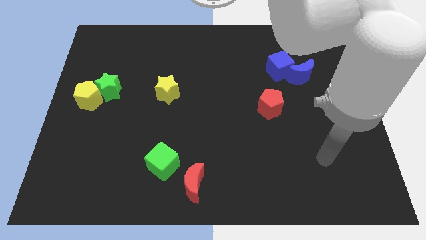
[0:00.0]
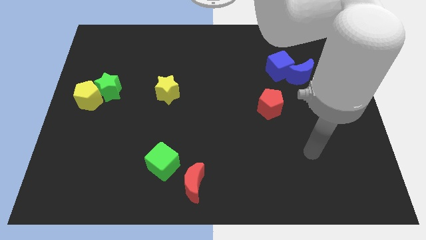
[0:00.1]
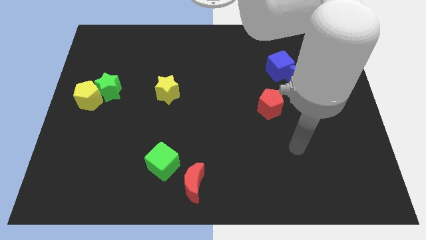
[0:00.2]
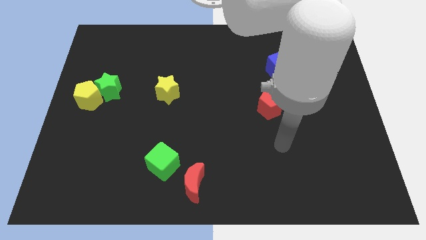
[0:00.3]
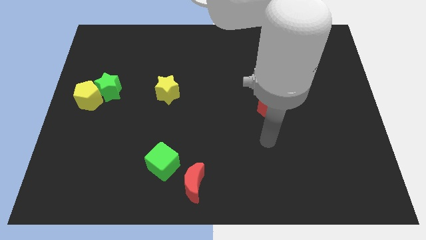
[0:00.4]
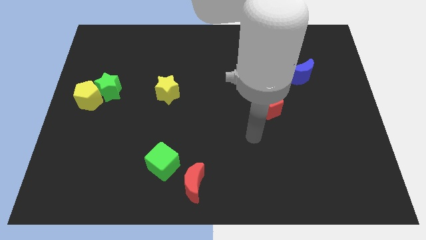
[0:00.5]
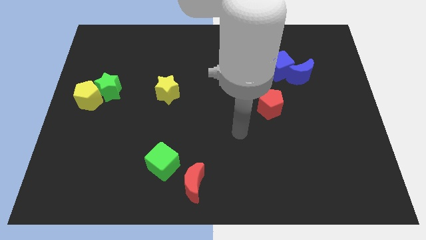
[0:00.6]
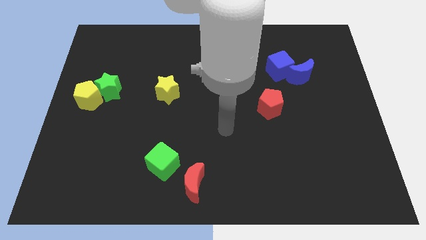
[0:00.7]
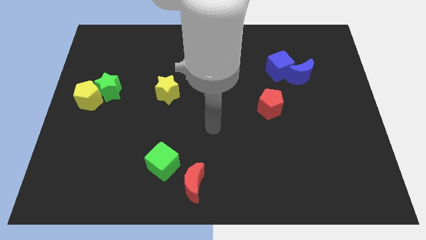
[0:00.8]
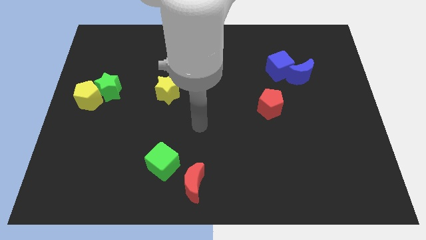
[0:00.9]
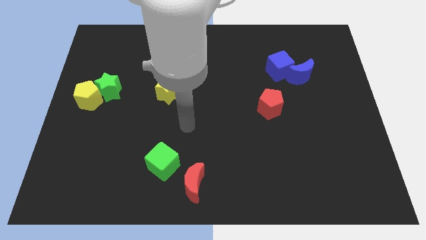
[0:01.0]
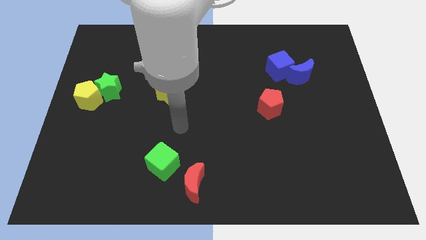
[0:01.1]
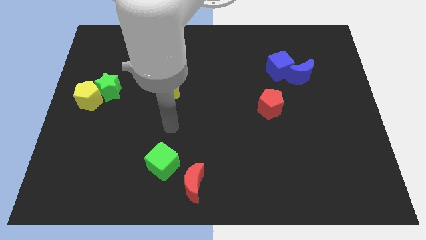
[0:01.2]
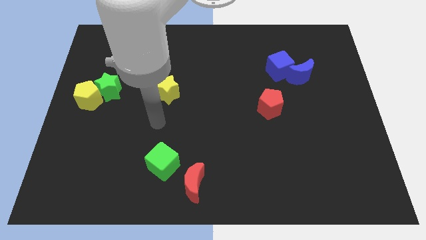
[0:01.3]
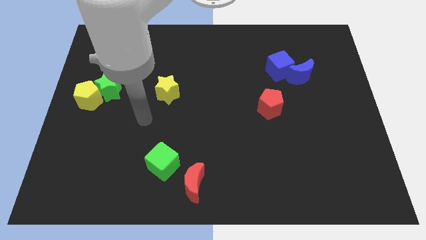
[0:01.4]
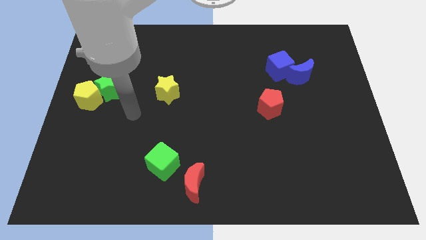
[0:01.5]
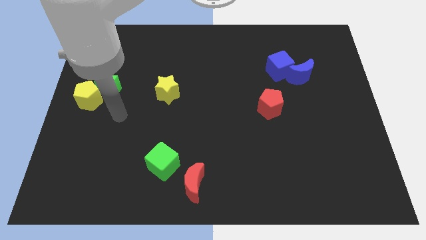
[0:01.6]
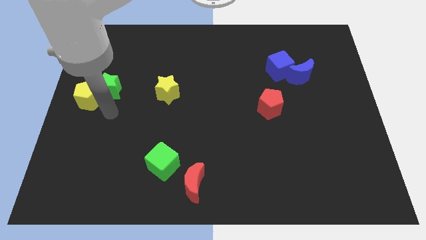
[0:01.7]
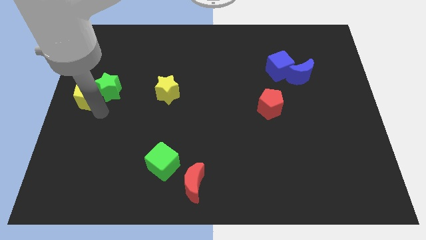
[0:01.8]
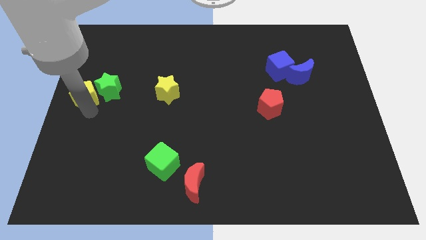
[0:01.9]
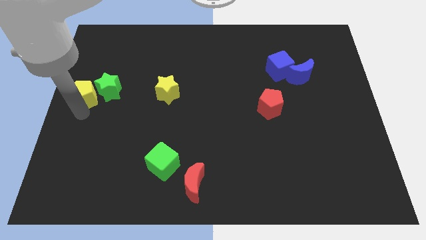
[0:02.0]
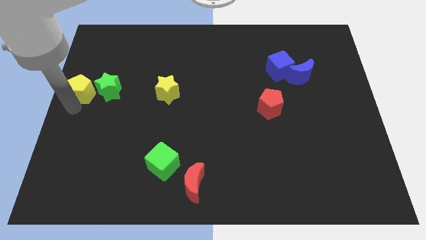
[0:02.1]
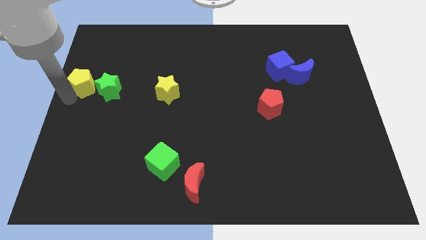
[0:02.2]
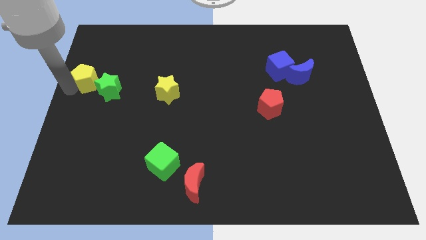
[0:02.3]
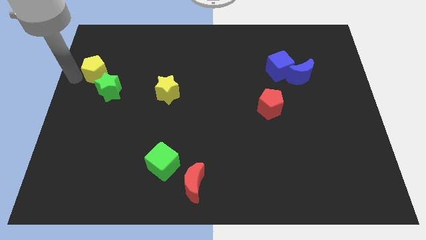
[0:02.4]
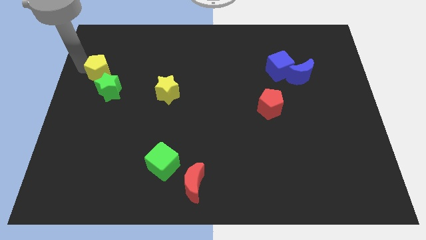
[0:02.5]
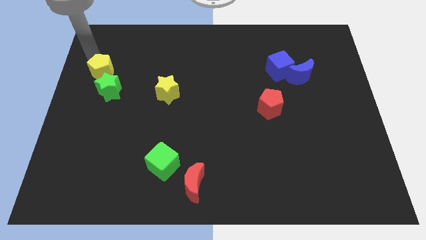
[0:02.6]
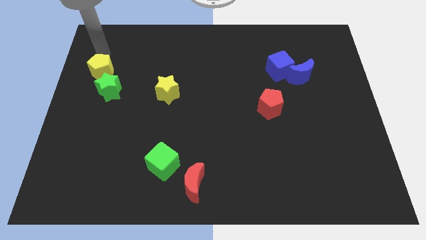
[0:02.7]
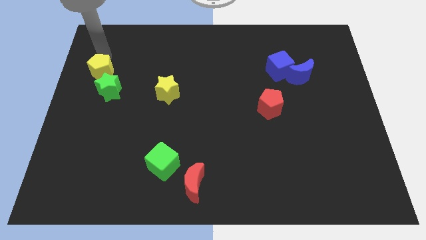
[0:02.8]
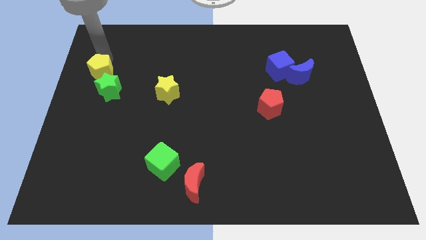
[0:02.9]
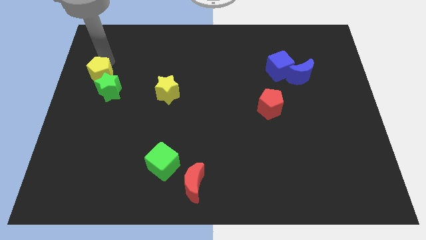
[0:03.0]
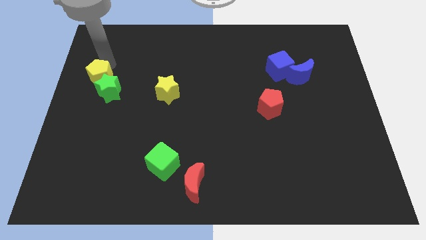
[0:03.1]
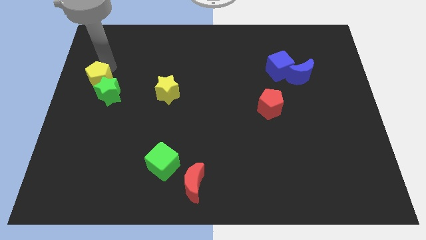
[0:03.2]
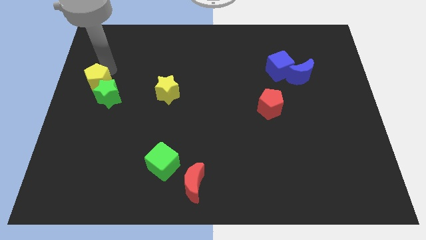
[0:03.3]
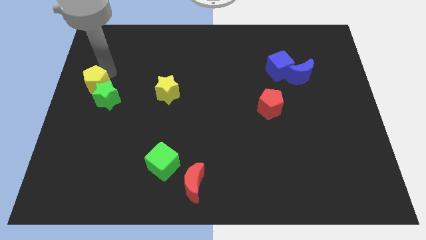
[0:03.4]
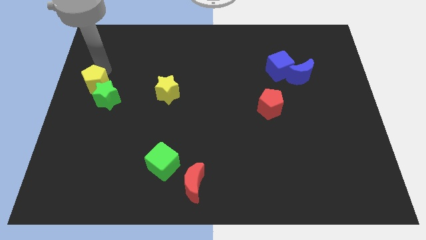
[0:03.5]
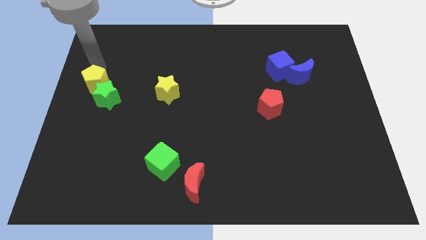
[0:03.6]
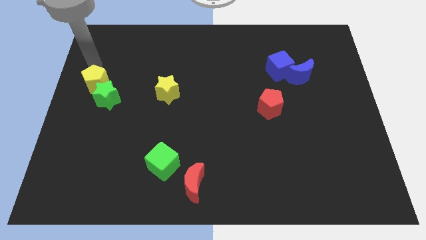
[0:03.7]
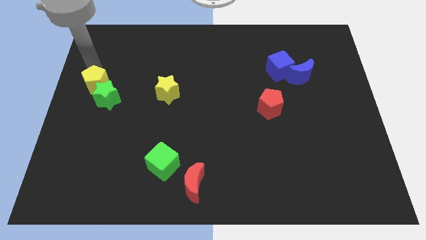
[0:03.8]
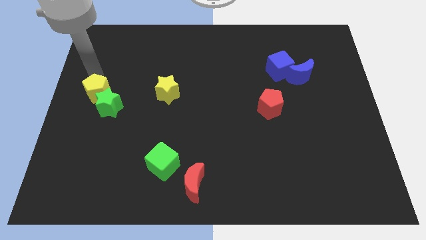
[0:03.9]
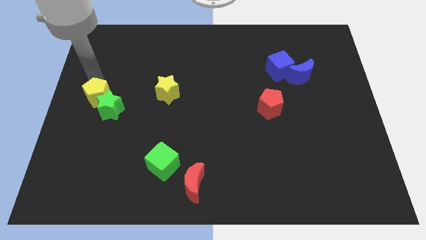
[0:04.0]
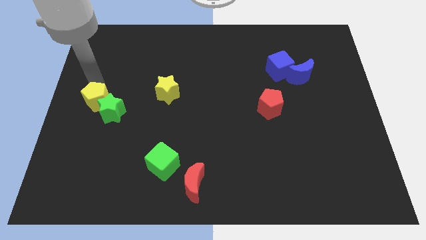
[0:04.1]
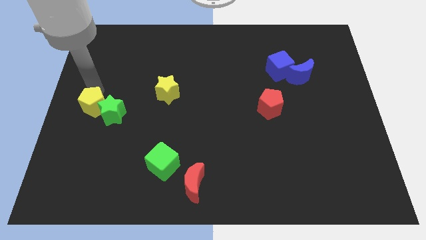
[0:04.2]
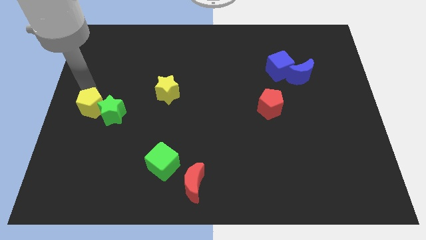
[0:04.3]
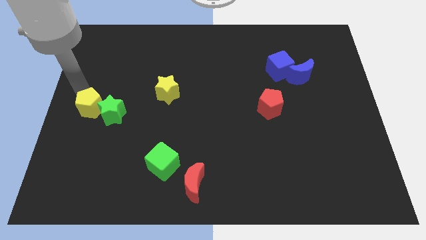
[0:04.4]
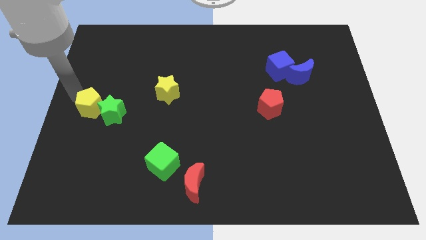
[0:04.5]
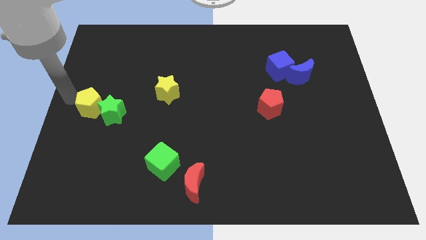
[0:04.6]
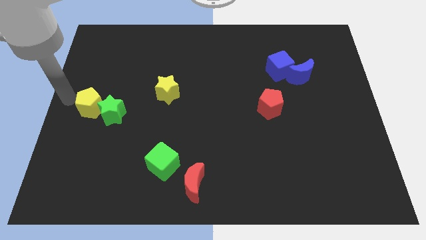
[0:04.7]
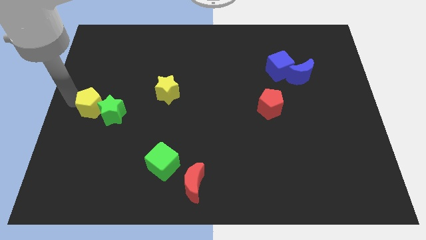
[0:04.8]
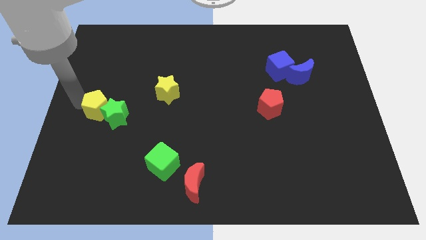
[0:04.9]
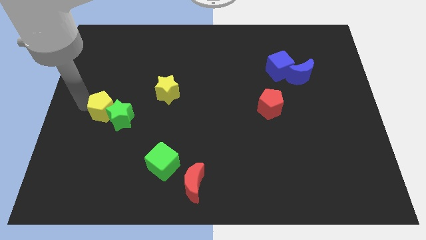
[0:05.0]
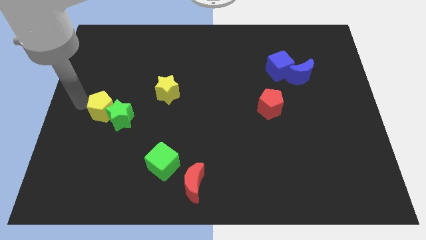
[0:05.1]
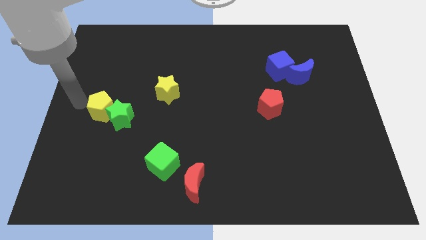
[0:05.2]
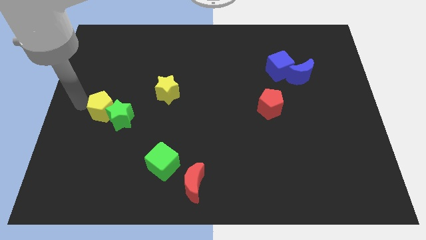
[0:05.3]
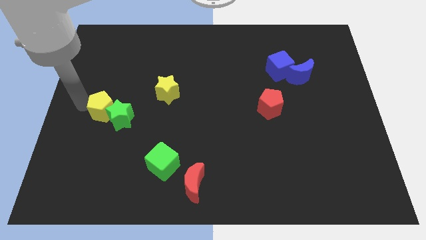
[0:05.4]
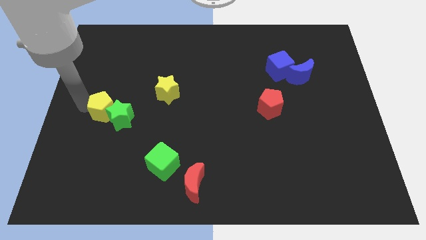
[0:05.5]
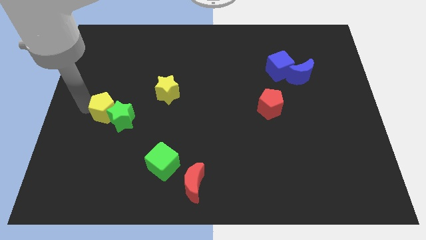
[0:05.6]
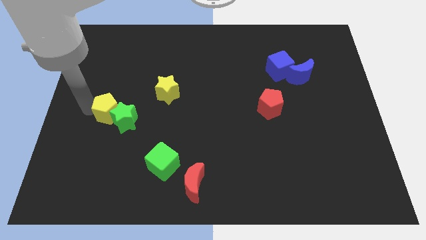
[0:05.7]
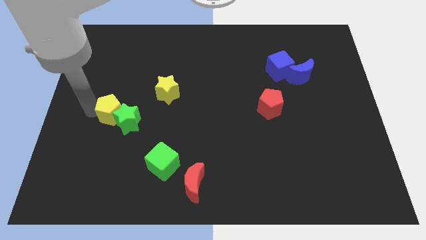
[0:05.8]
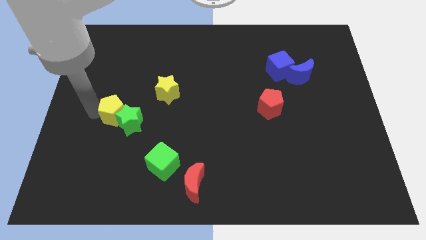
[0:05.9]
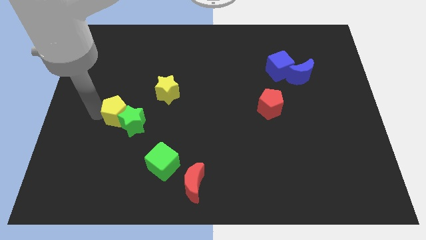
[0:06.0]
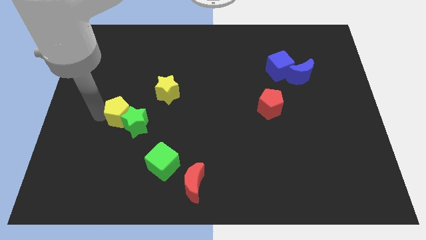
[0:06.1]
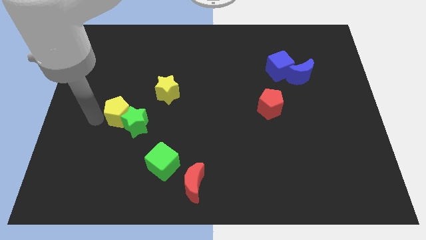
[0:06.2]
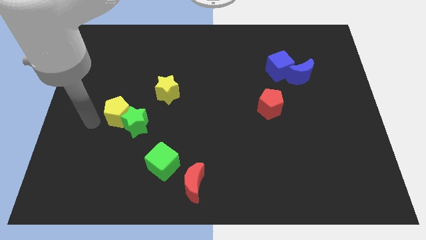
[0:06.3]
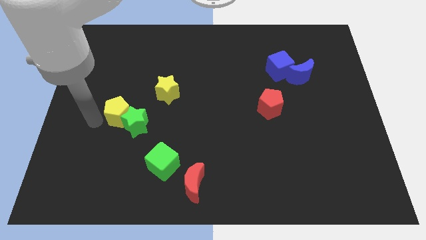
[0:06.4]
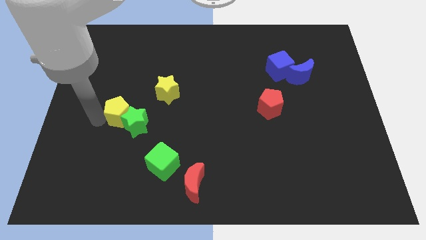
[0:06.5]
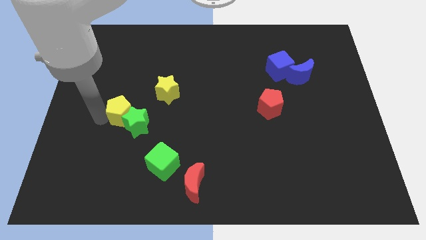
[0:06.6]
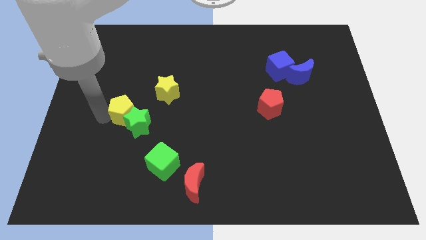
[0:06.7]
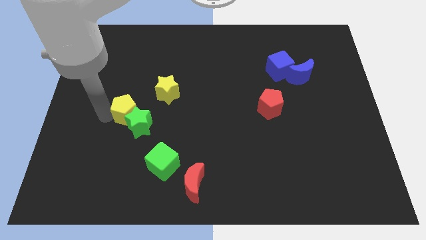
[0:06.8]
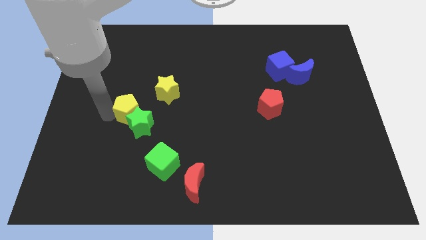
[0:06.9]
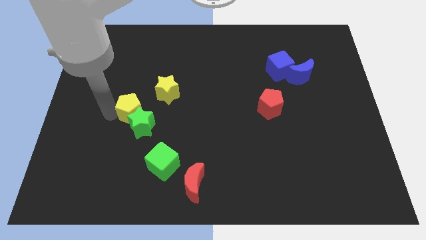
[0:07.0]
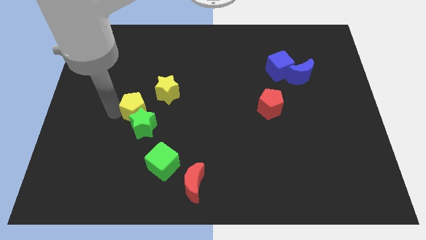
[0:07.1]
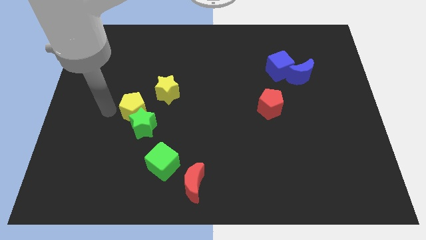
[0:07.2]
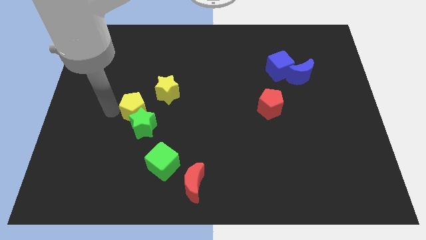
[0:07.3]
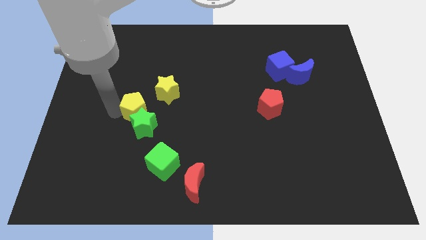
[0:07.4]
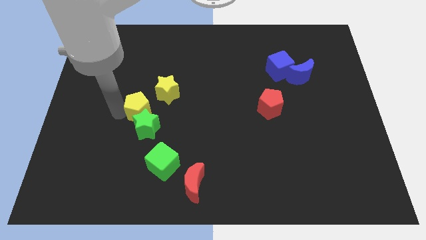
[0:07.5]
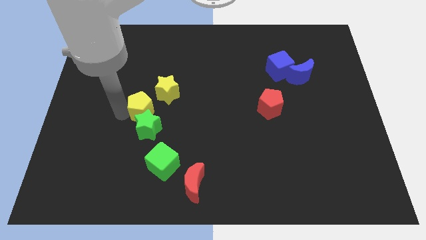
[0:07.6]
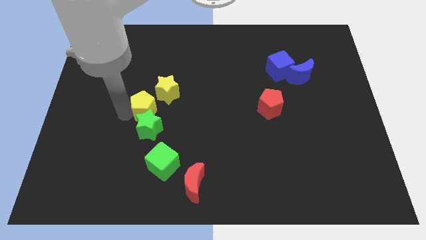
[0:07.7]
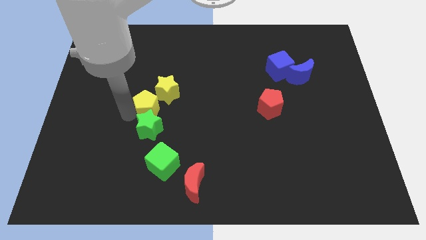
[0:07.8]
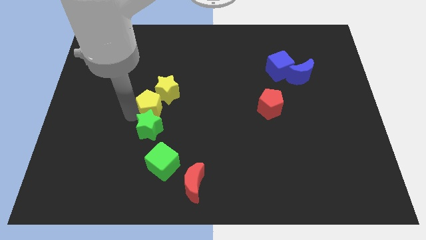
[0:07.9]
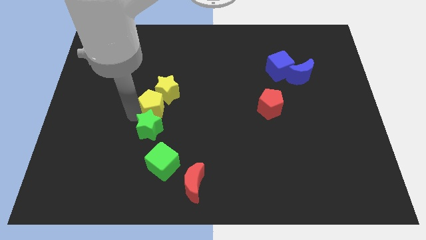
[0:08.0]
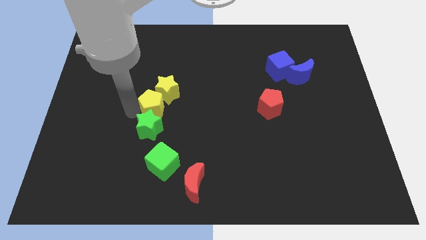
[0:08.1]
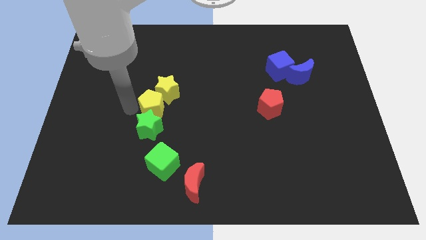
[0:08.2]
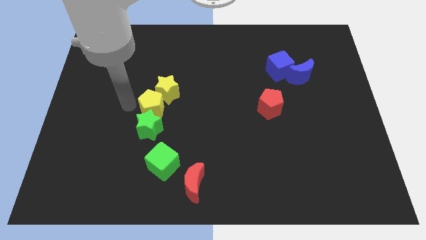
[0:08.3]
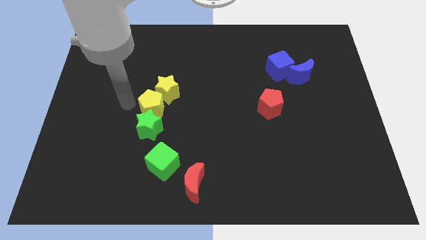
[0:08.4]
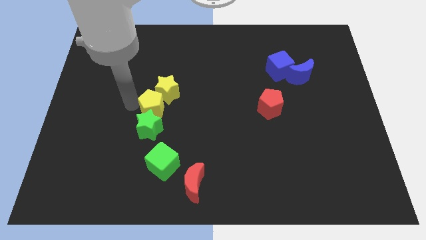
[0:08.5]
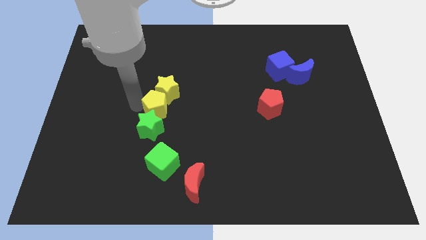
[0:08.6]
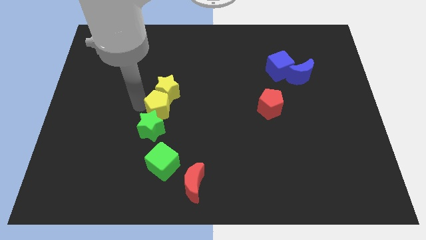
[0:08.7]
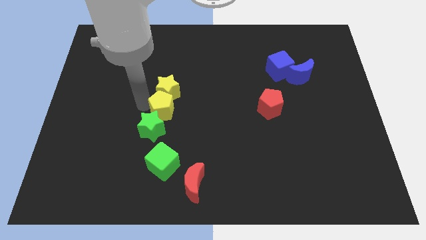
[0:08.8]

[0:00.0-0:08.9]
put the yellow pentagon to the center
